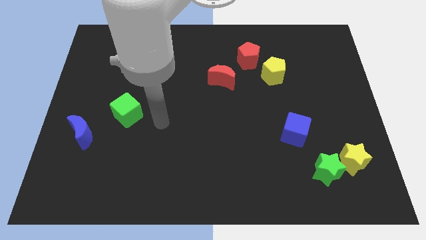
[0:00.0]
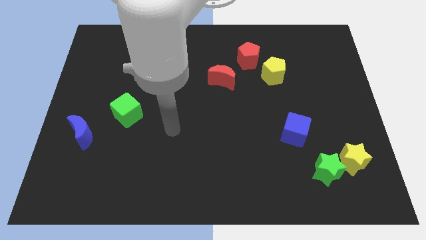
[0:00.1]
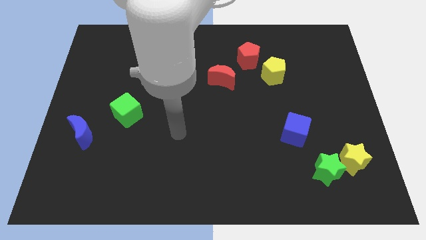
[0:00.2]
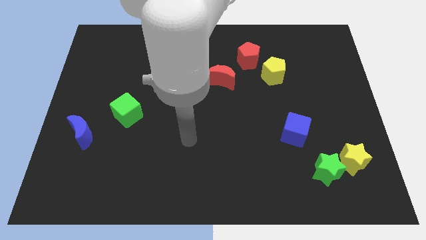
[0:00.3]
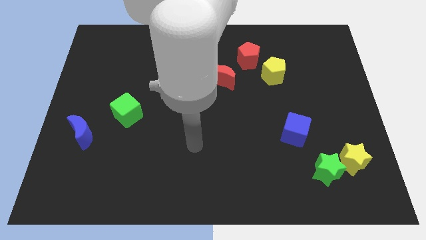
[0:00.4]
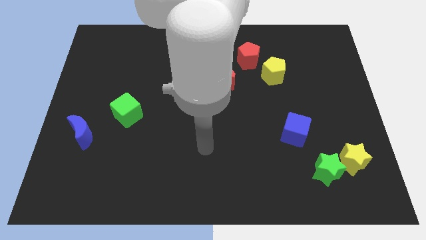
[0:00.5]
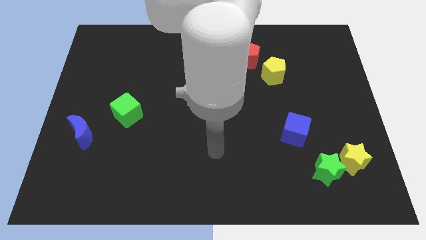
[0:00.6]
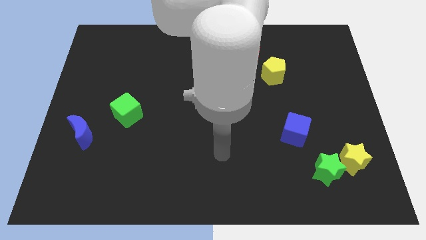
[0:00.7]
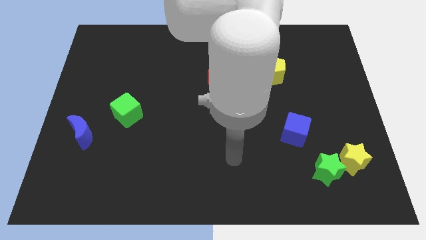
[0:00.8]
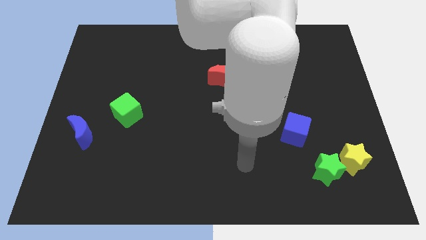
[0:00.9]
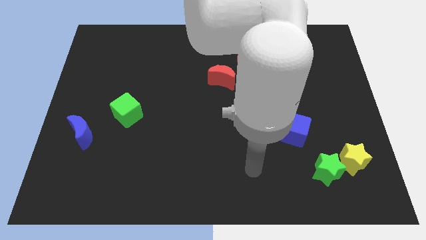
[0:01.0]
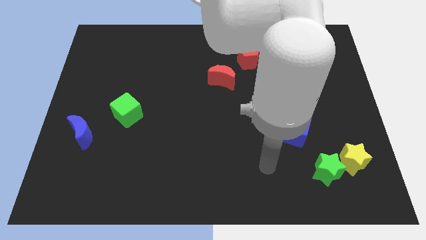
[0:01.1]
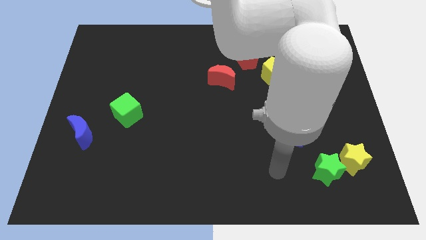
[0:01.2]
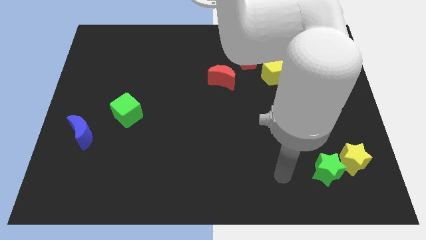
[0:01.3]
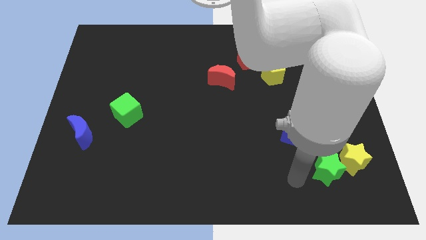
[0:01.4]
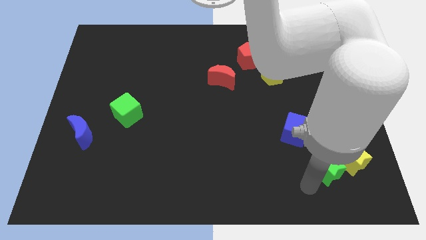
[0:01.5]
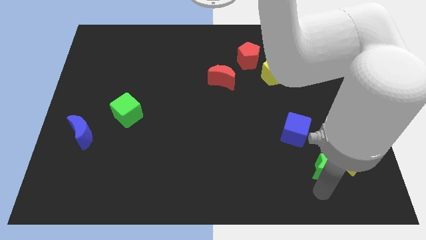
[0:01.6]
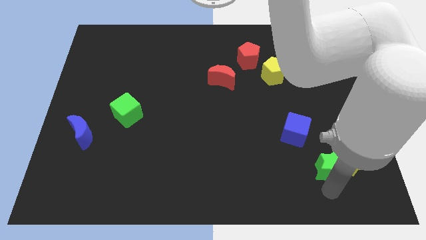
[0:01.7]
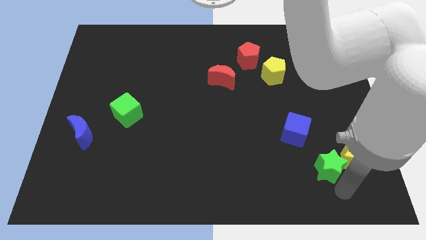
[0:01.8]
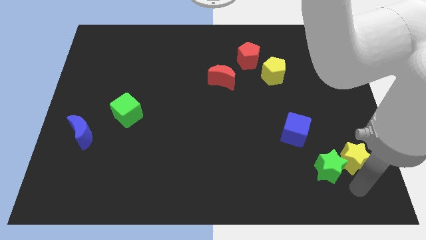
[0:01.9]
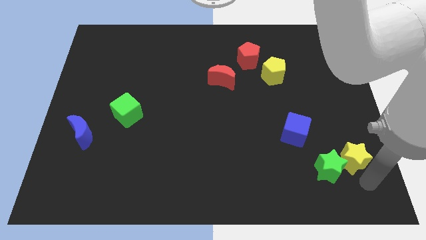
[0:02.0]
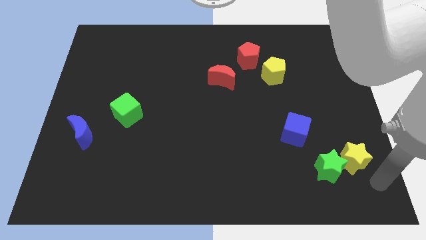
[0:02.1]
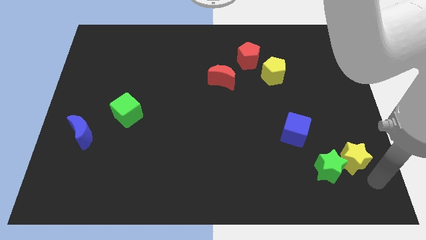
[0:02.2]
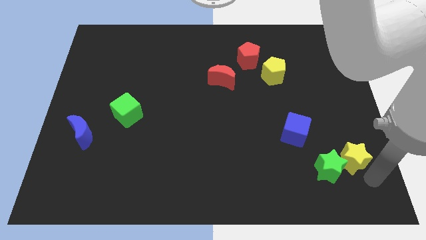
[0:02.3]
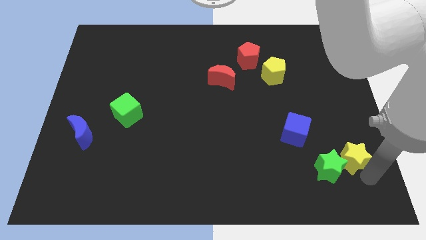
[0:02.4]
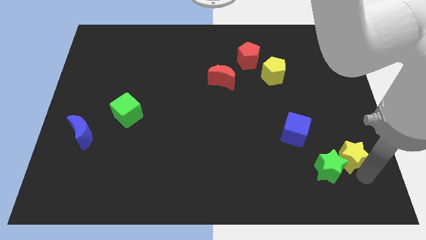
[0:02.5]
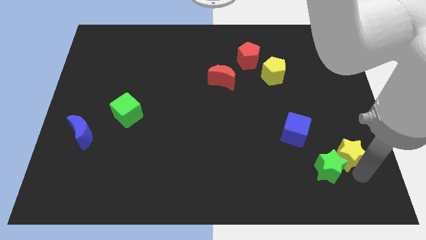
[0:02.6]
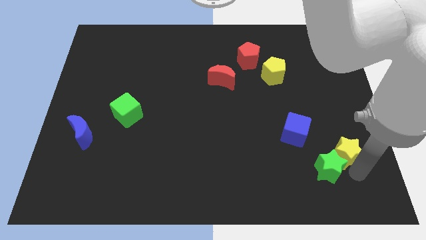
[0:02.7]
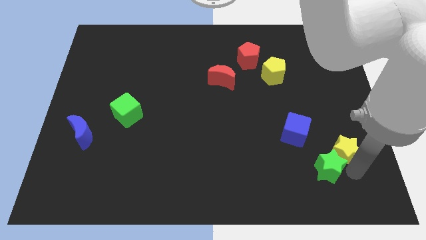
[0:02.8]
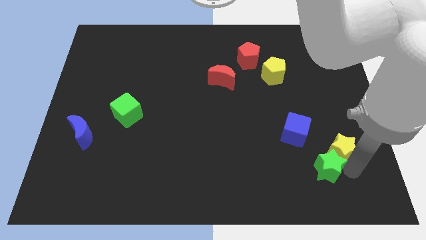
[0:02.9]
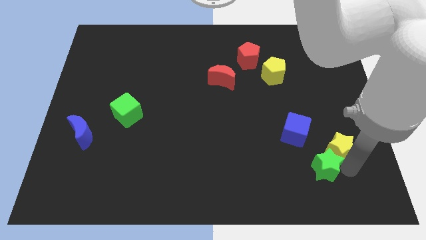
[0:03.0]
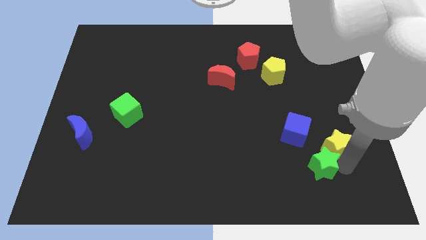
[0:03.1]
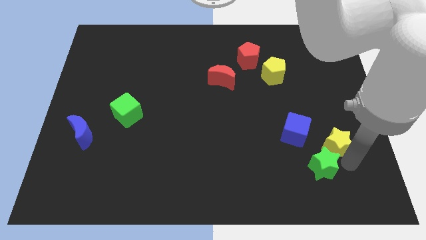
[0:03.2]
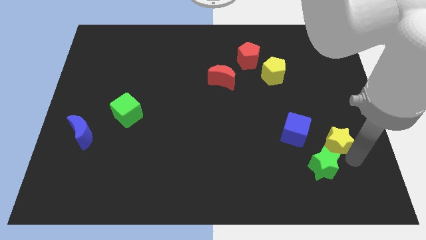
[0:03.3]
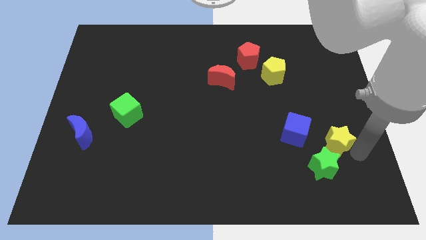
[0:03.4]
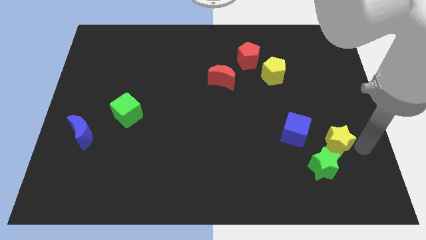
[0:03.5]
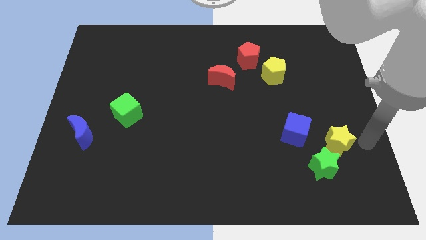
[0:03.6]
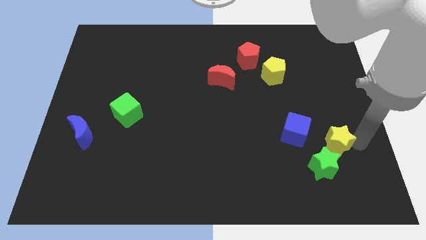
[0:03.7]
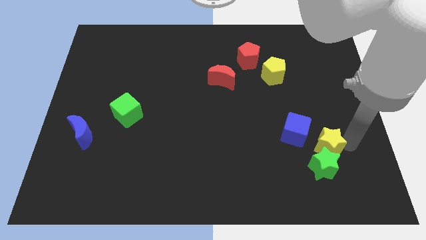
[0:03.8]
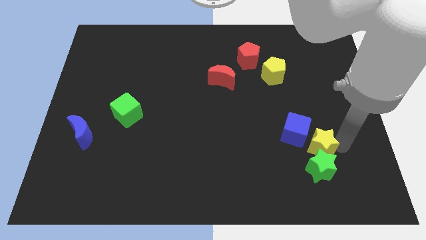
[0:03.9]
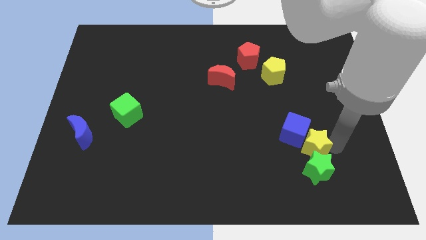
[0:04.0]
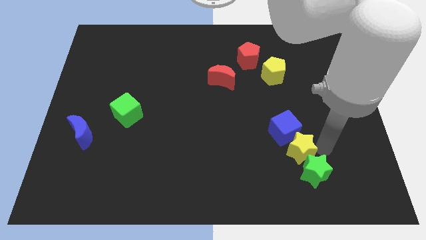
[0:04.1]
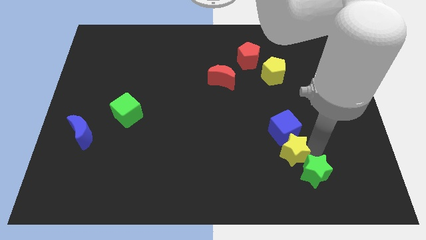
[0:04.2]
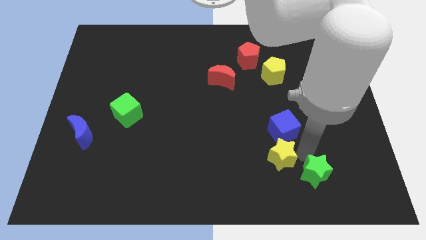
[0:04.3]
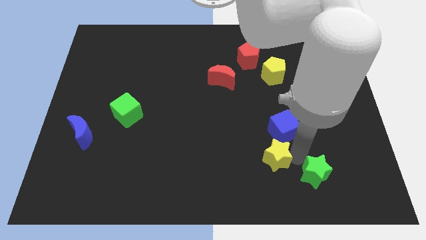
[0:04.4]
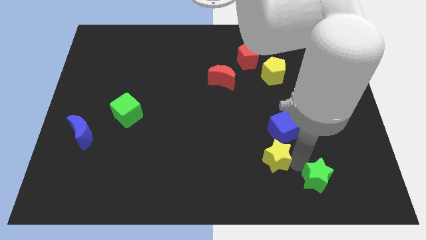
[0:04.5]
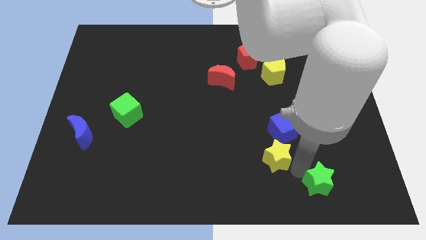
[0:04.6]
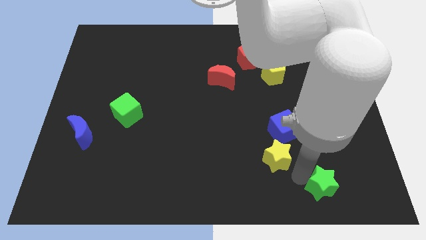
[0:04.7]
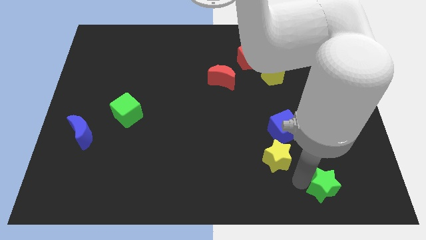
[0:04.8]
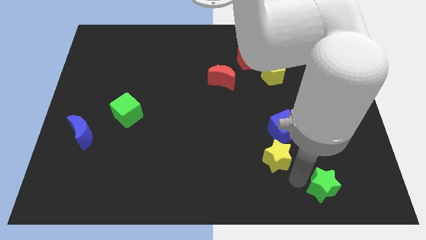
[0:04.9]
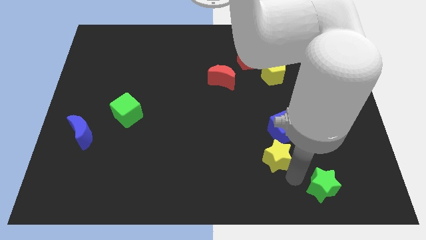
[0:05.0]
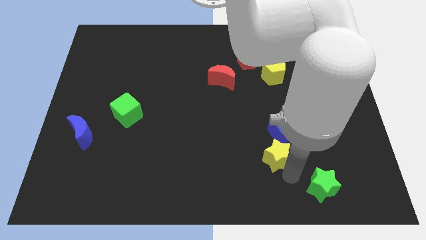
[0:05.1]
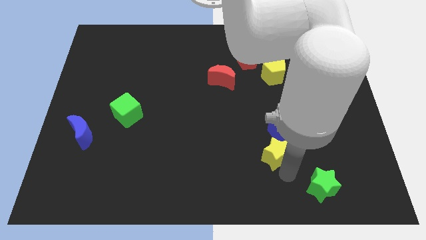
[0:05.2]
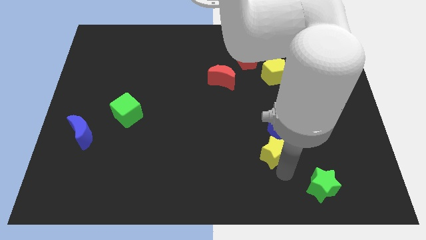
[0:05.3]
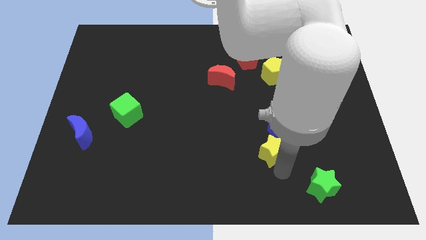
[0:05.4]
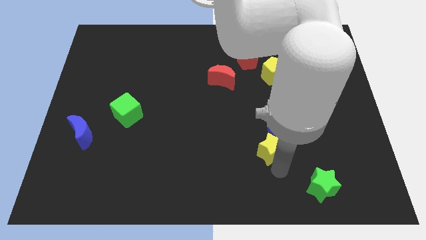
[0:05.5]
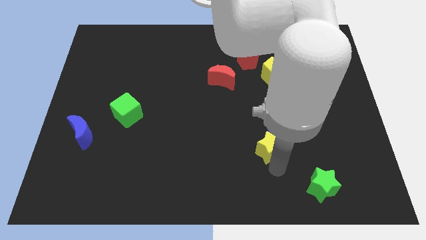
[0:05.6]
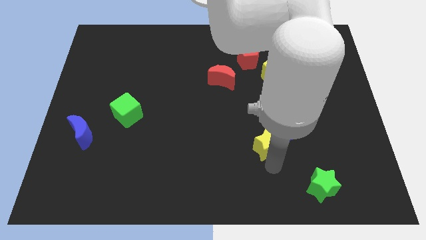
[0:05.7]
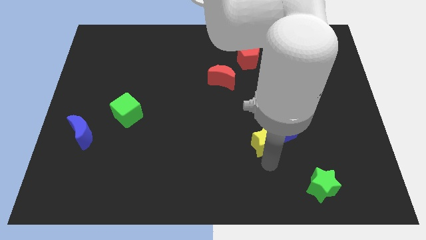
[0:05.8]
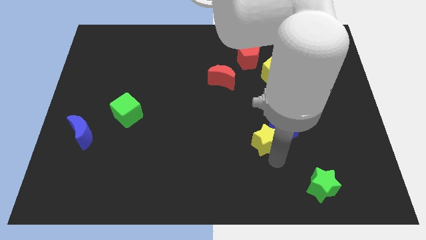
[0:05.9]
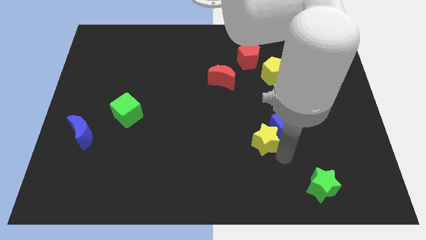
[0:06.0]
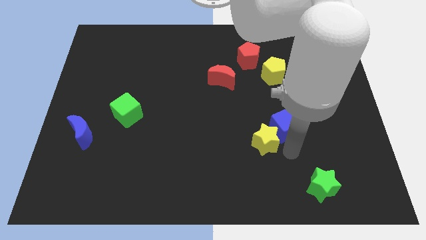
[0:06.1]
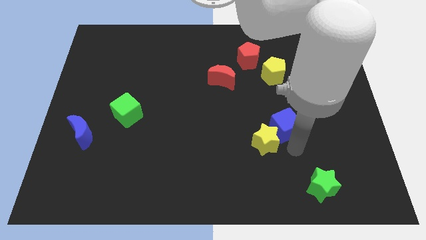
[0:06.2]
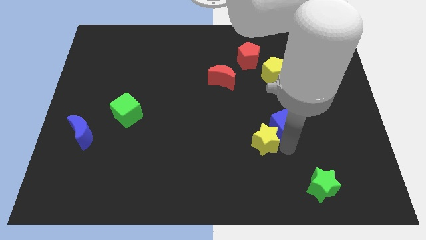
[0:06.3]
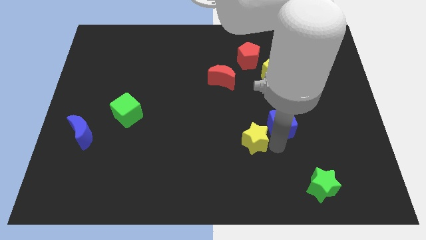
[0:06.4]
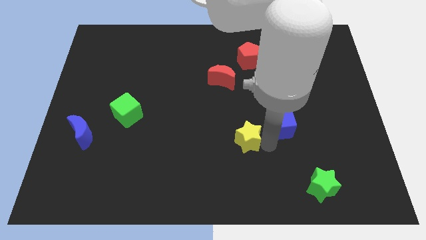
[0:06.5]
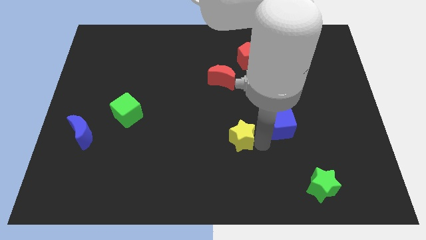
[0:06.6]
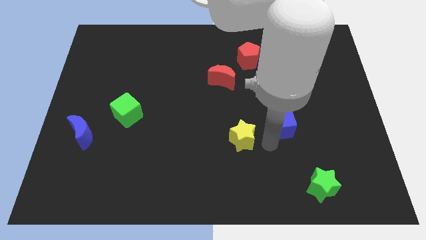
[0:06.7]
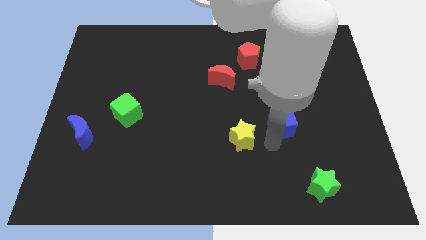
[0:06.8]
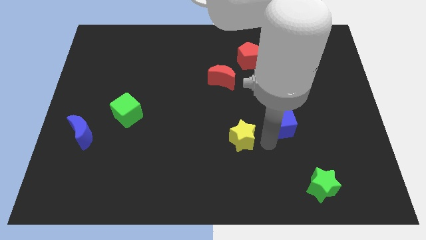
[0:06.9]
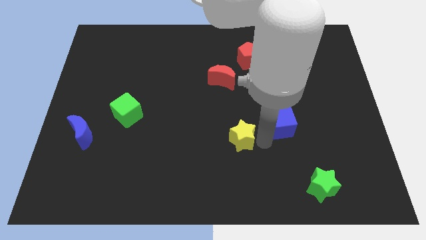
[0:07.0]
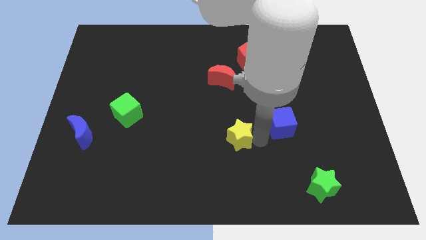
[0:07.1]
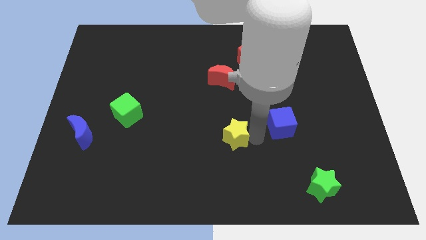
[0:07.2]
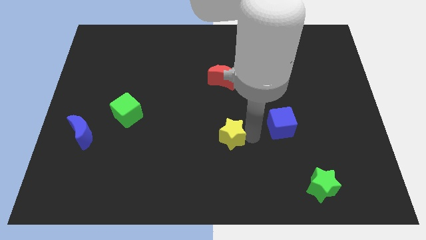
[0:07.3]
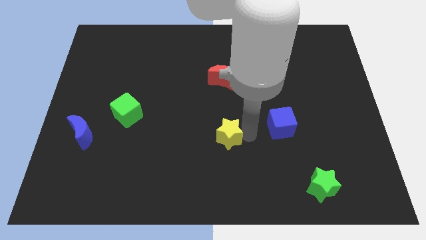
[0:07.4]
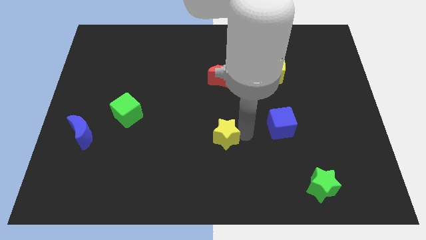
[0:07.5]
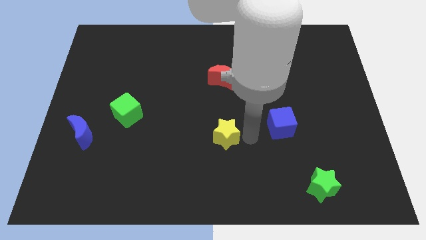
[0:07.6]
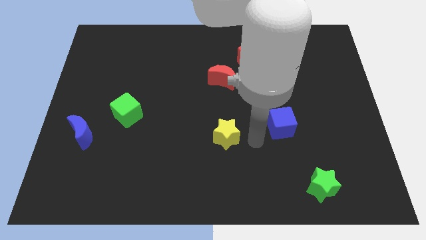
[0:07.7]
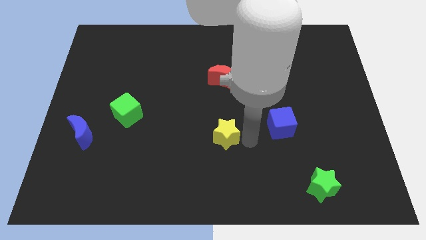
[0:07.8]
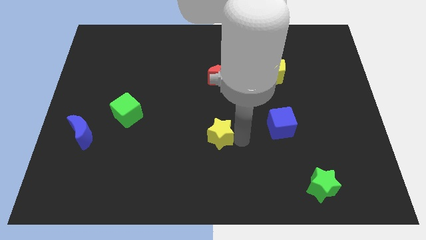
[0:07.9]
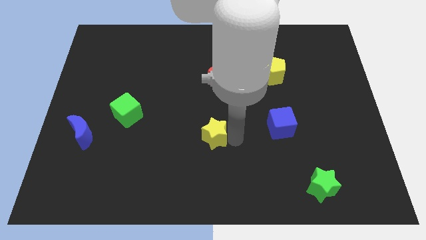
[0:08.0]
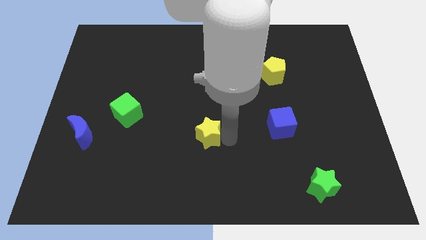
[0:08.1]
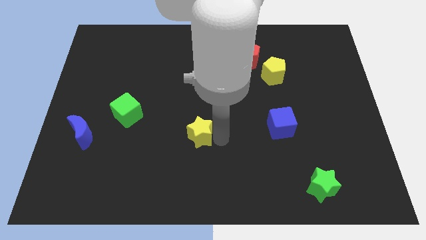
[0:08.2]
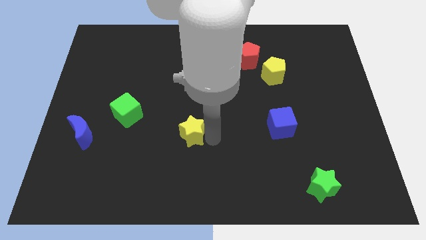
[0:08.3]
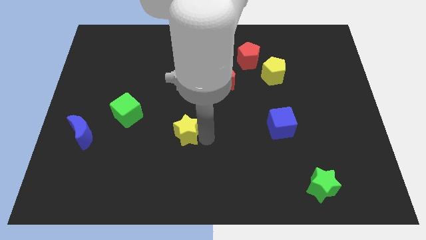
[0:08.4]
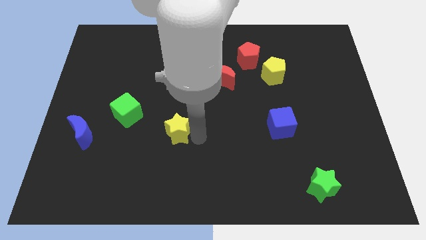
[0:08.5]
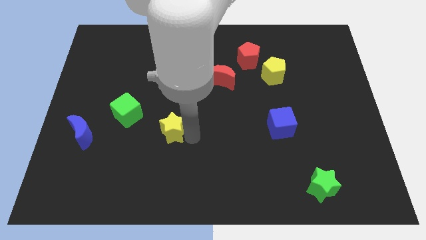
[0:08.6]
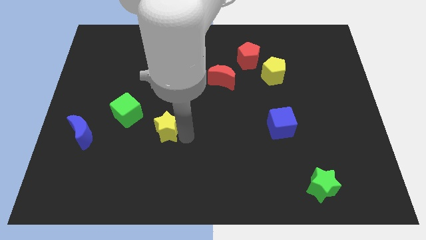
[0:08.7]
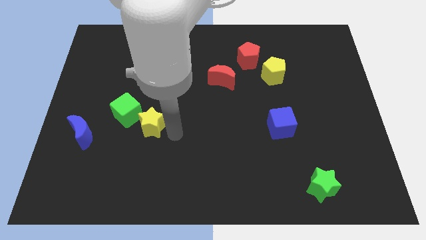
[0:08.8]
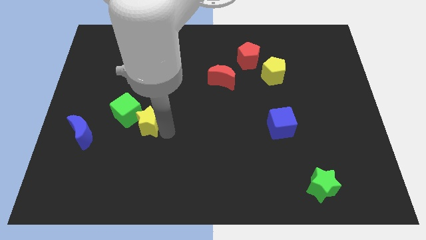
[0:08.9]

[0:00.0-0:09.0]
put the yellow star close to the green cube
